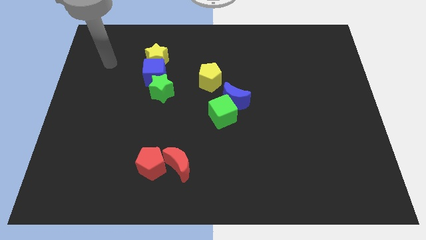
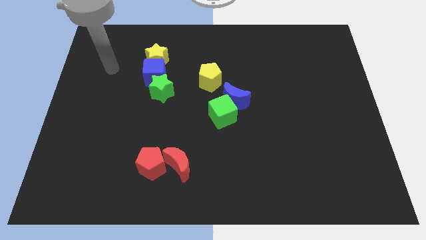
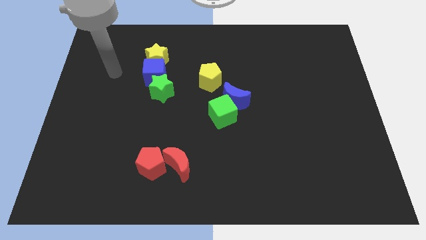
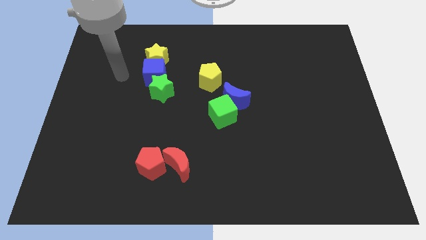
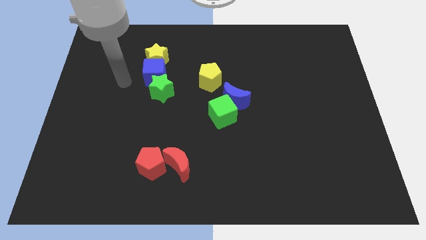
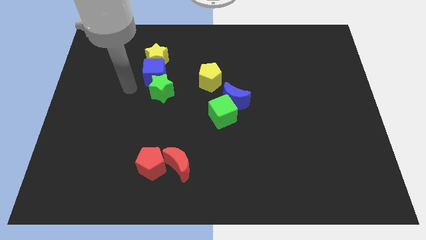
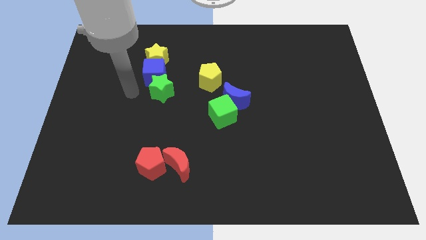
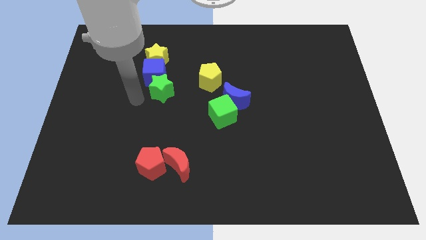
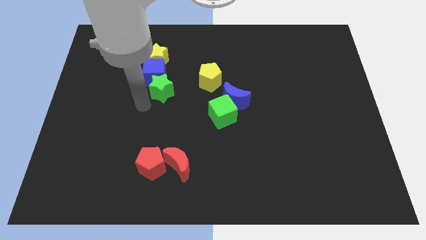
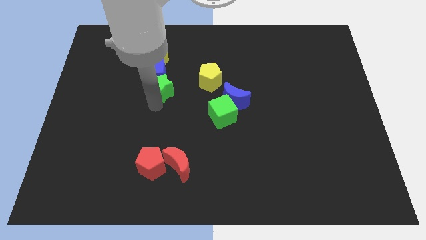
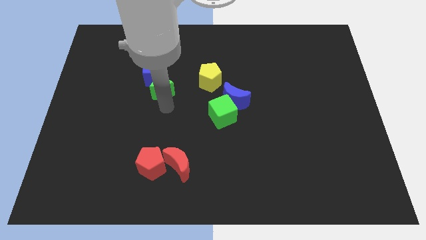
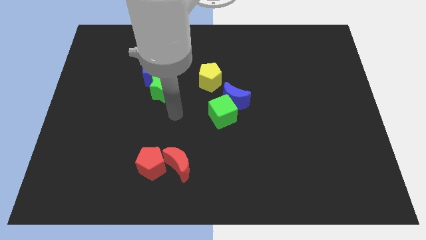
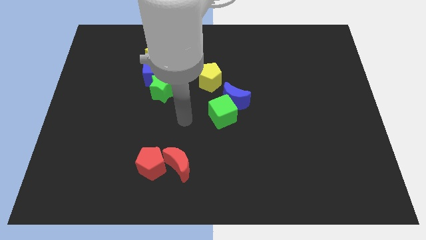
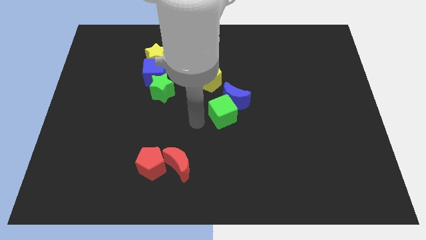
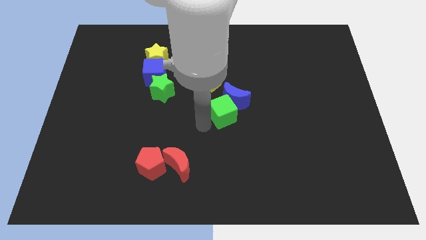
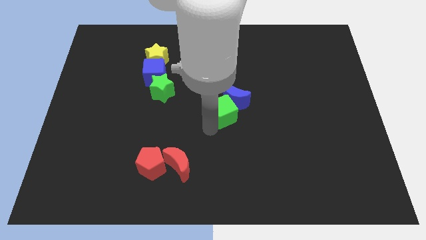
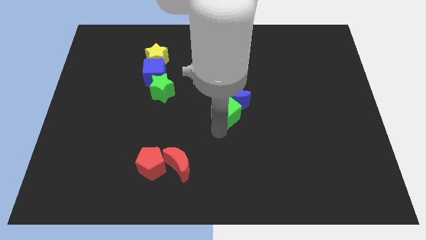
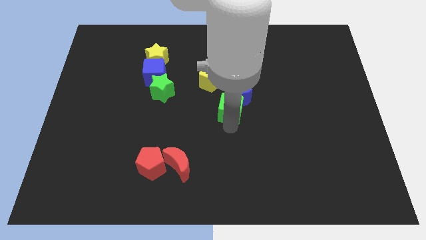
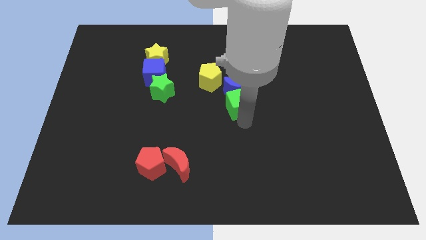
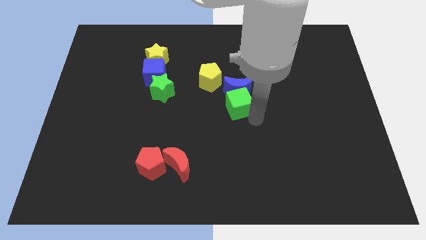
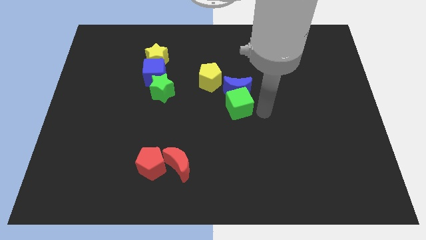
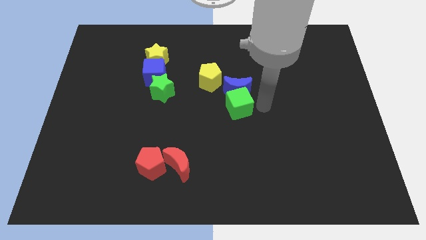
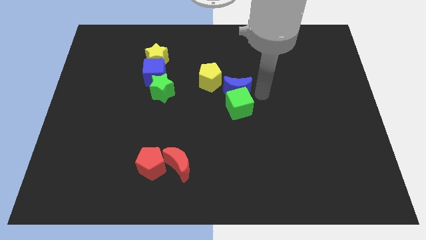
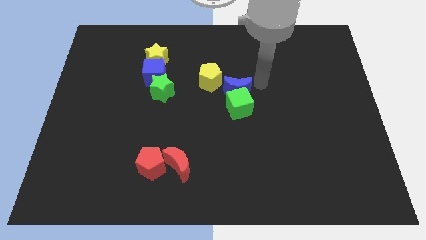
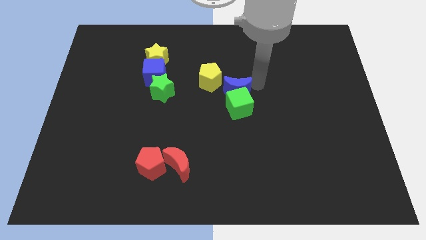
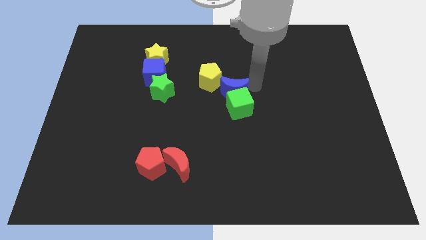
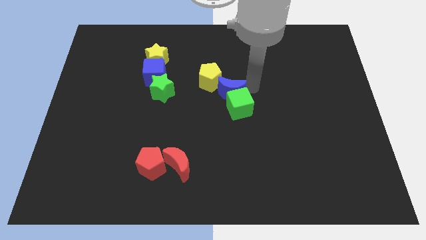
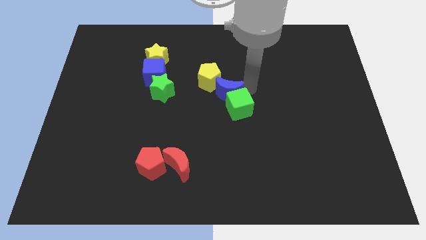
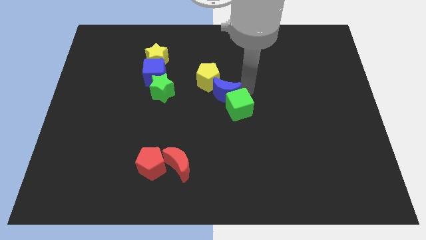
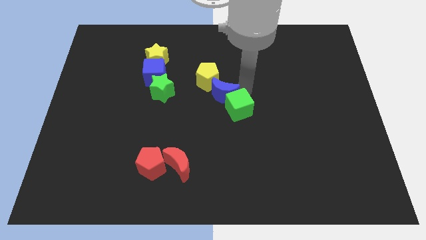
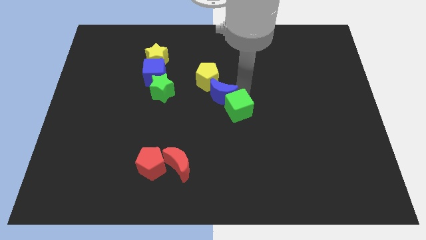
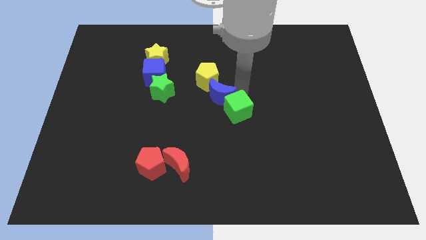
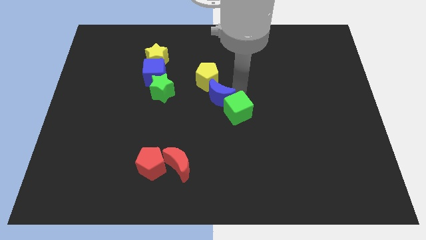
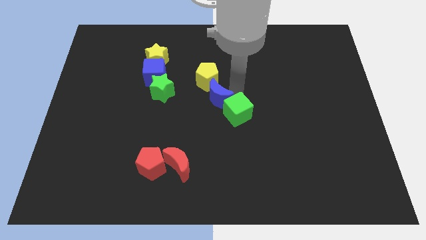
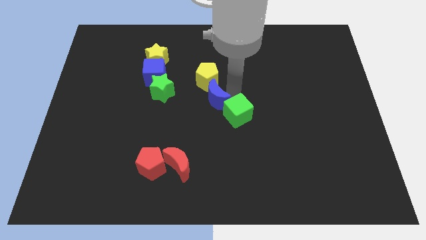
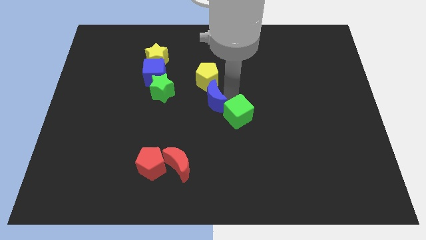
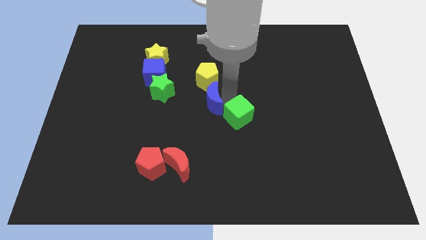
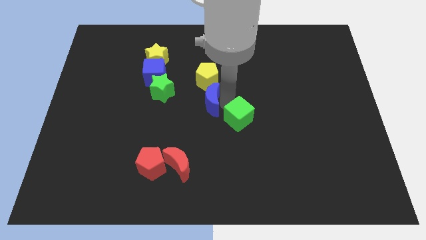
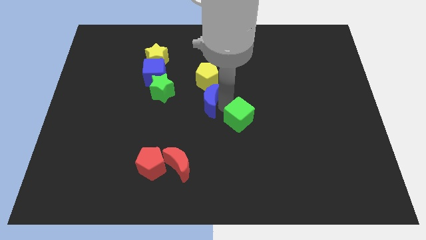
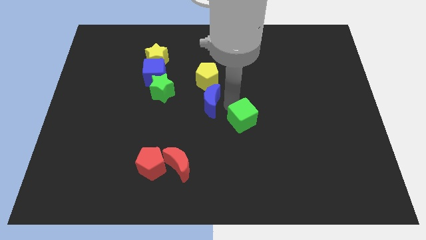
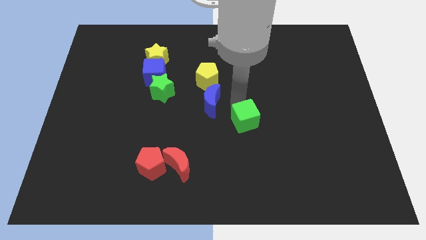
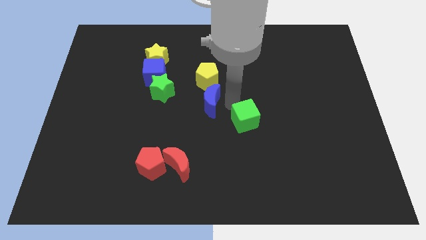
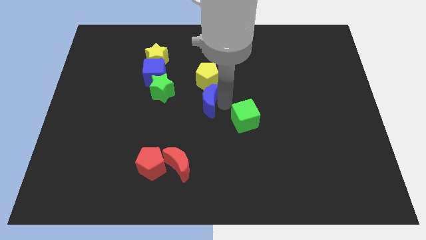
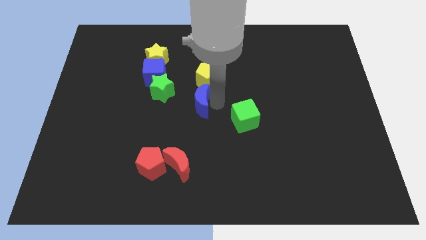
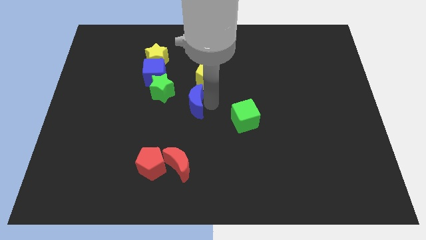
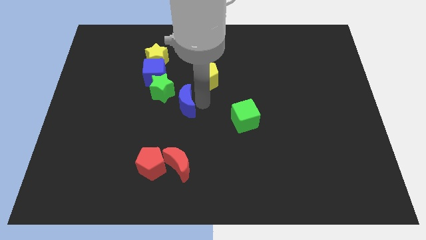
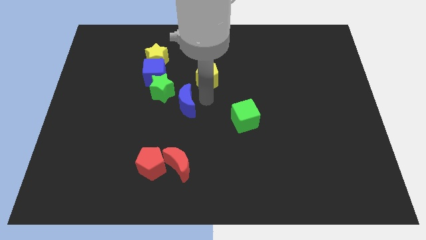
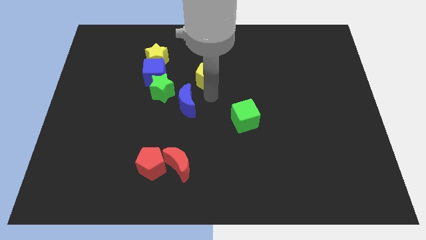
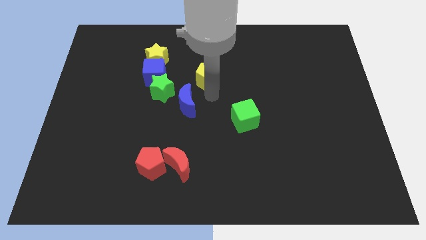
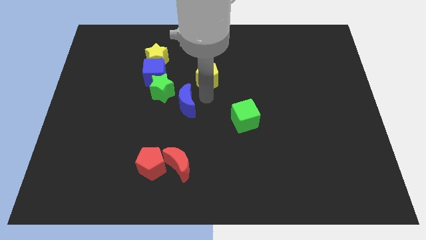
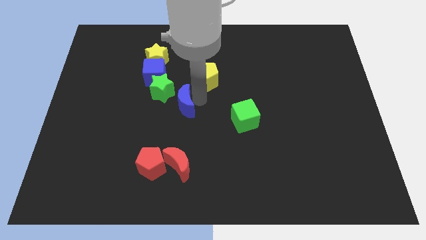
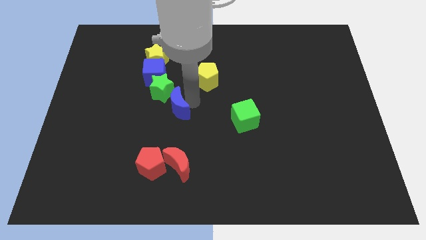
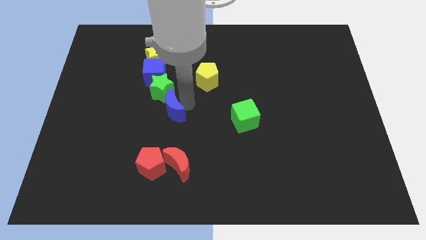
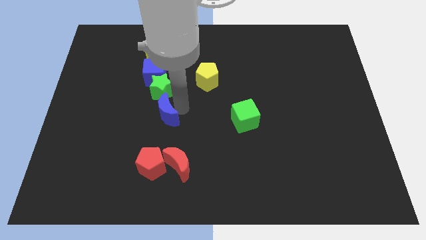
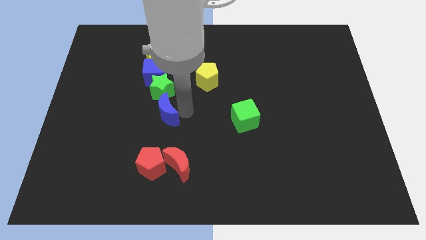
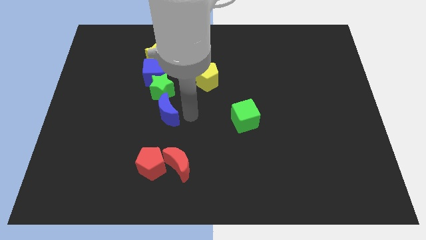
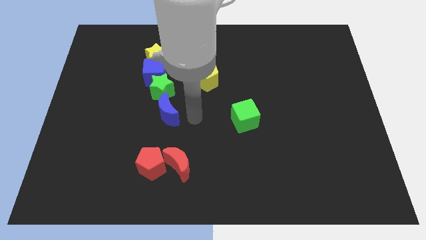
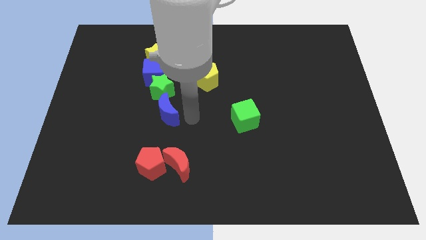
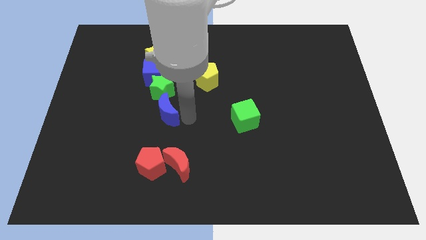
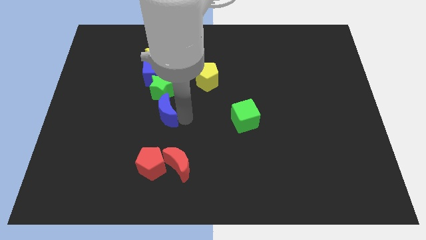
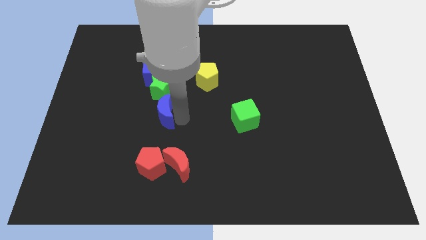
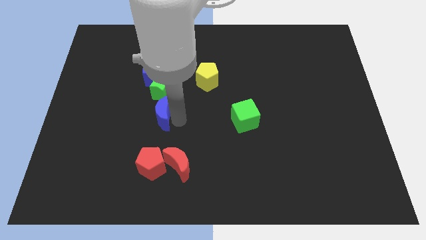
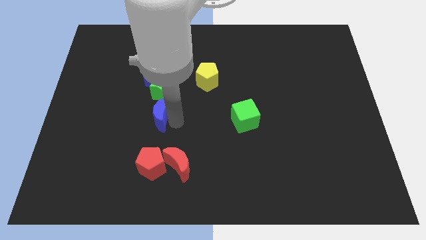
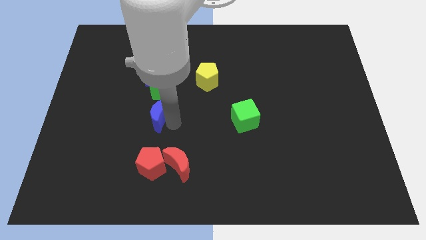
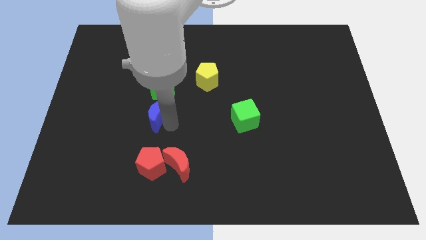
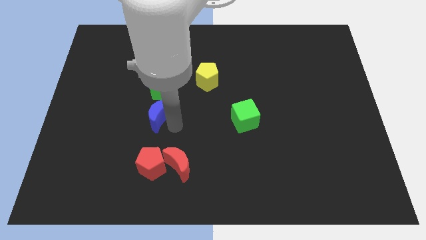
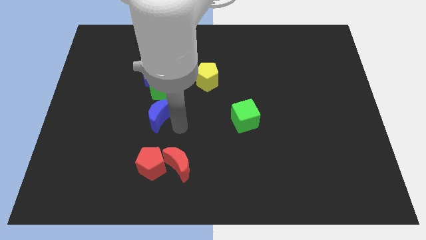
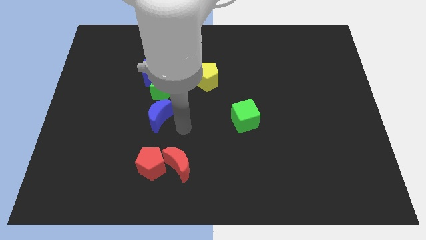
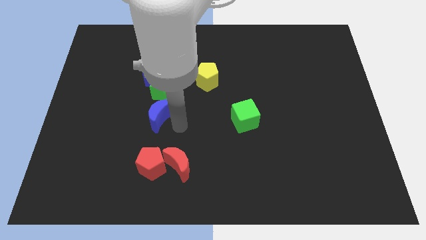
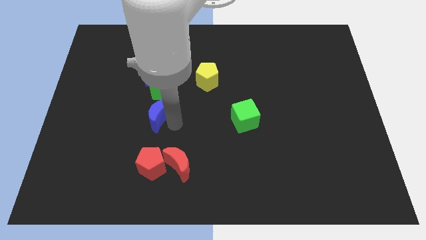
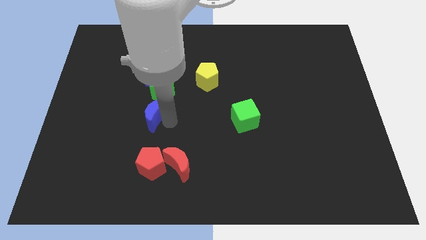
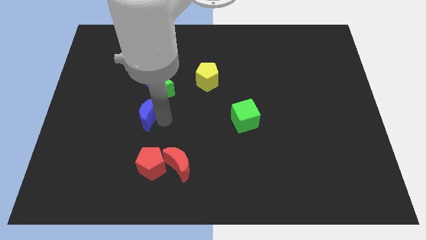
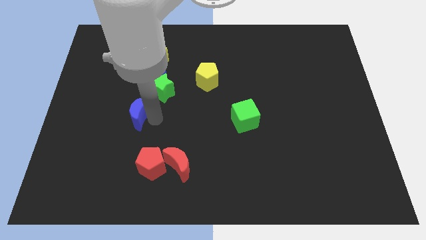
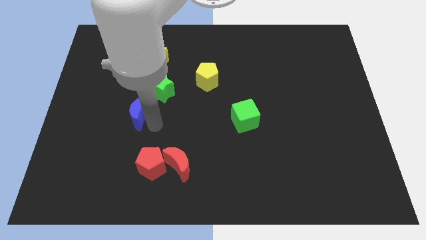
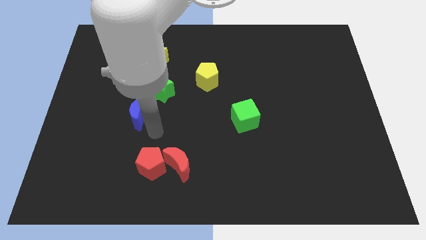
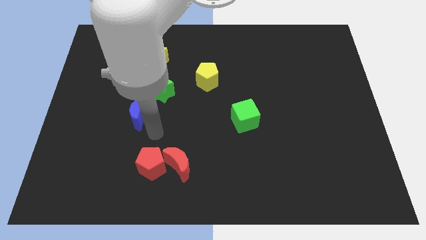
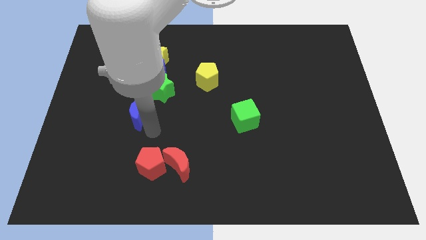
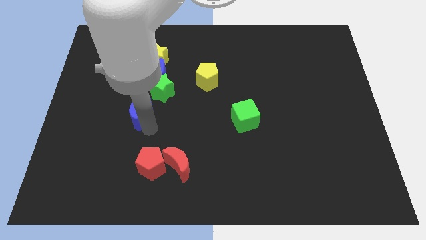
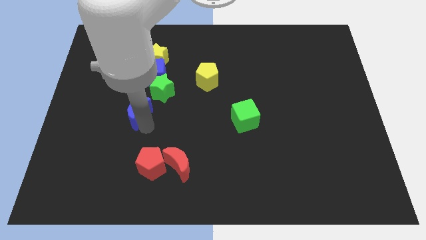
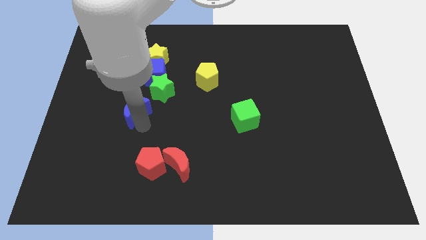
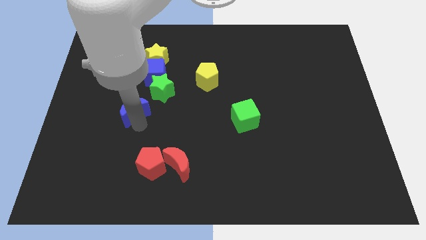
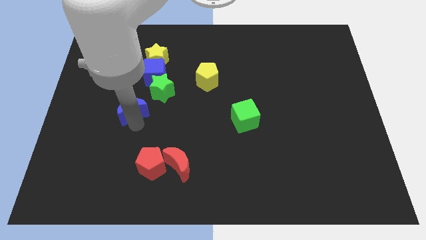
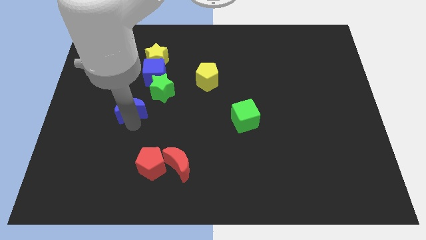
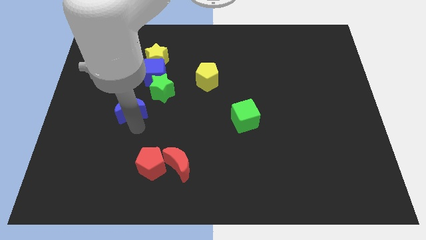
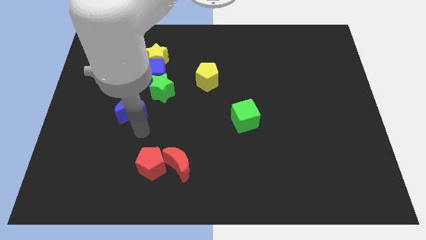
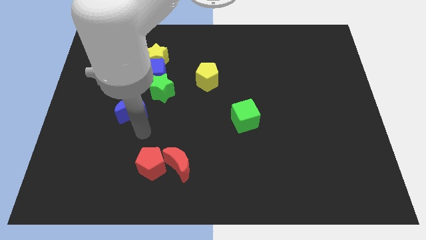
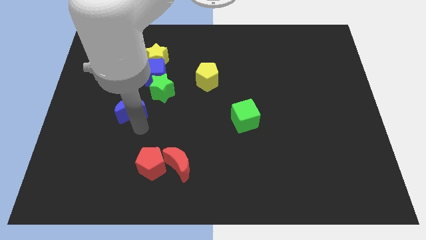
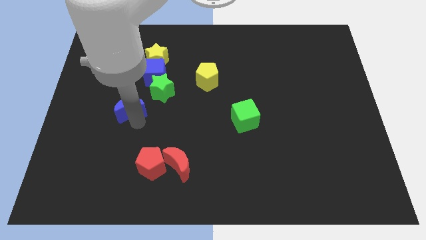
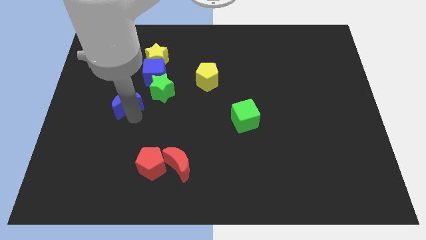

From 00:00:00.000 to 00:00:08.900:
move the blue moon to the left of the green star
